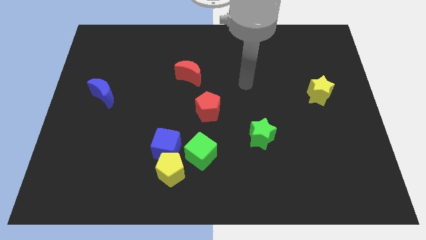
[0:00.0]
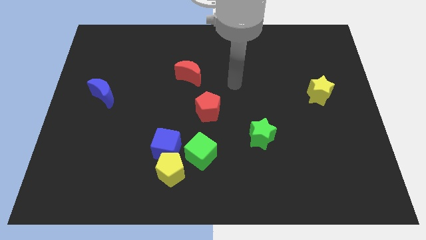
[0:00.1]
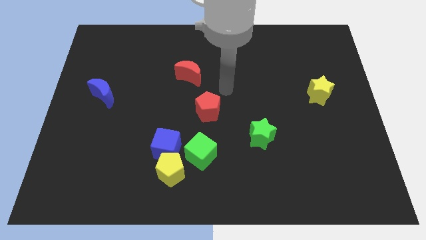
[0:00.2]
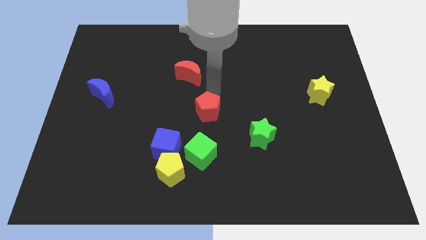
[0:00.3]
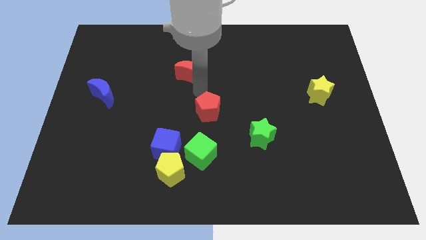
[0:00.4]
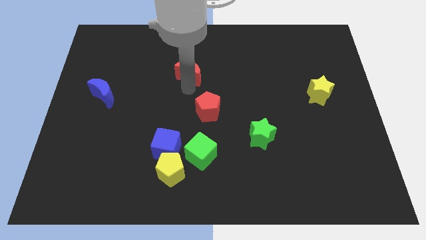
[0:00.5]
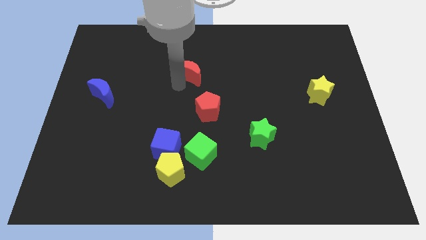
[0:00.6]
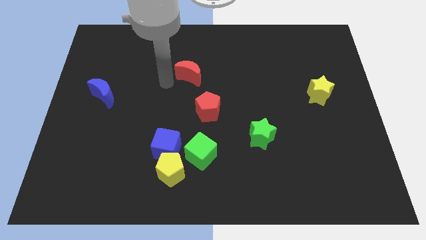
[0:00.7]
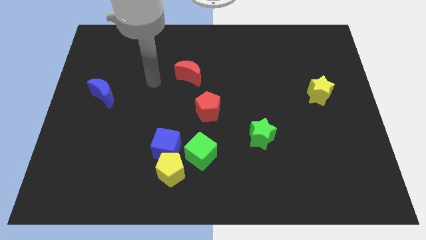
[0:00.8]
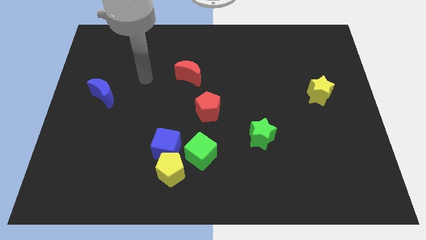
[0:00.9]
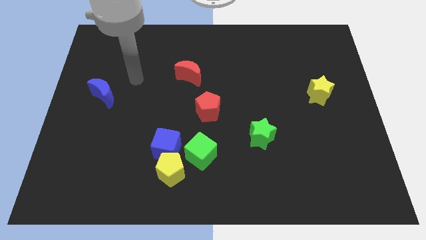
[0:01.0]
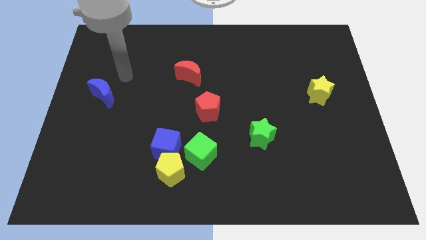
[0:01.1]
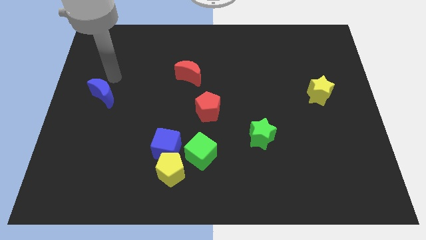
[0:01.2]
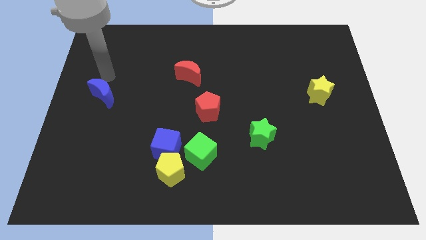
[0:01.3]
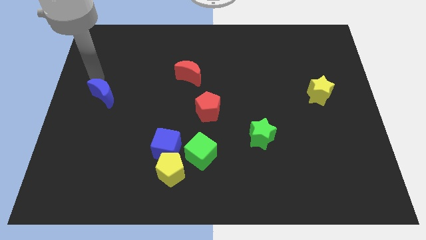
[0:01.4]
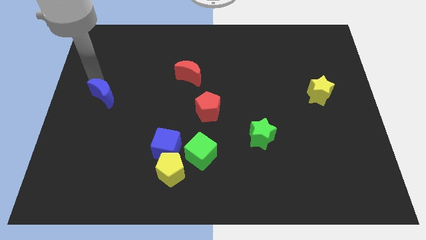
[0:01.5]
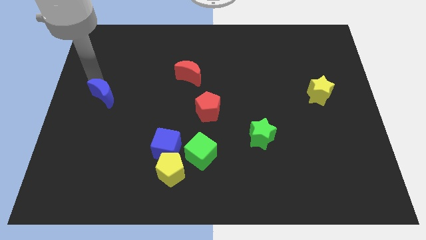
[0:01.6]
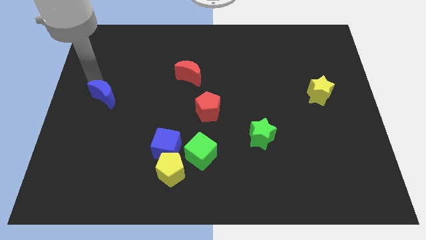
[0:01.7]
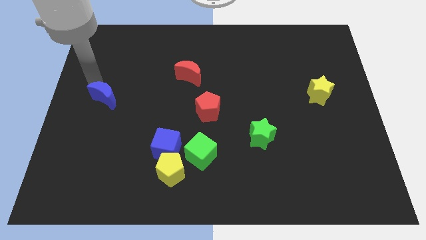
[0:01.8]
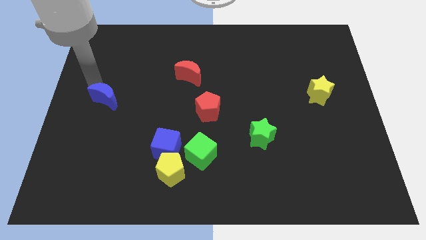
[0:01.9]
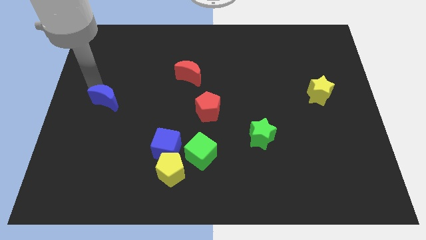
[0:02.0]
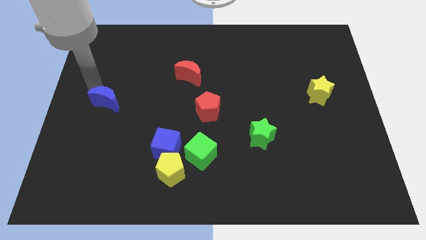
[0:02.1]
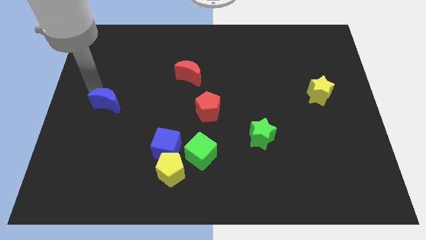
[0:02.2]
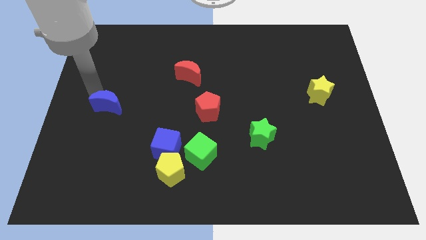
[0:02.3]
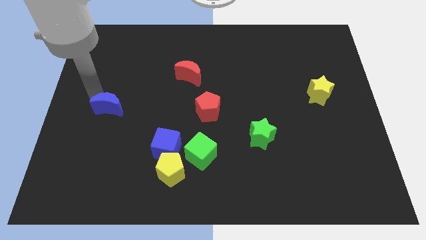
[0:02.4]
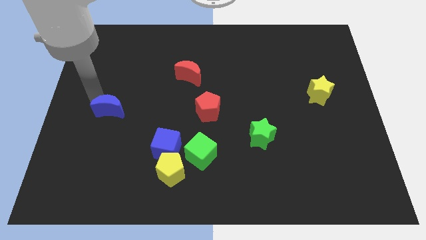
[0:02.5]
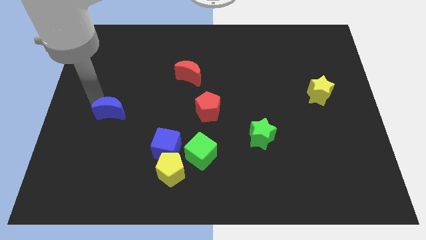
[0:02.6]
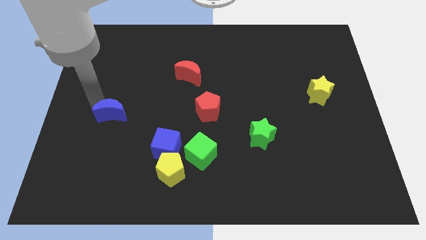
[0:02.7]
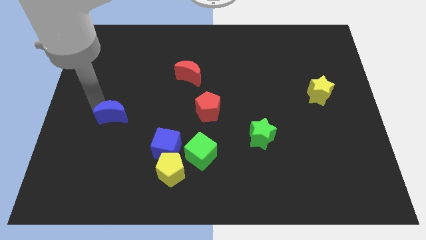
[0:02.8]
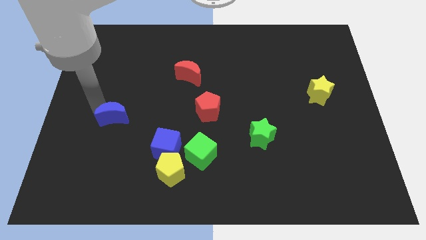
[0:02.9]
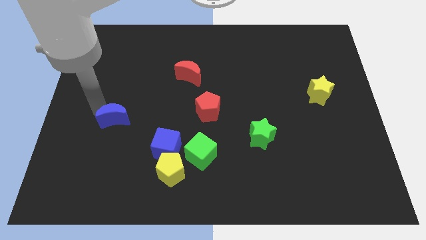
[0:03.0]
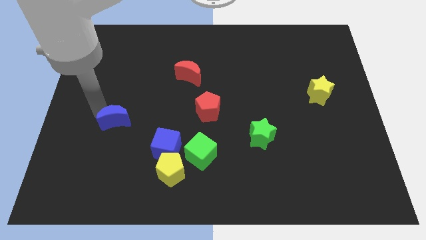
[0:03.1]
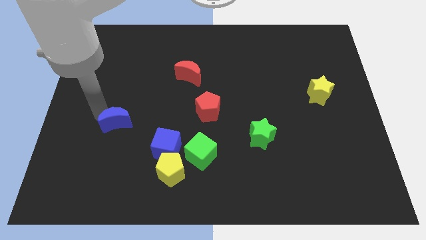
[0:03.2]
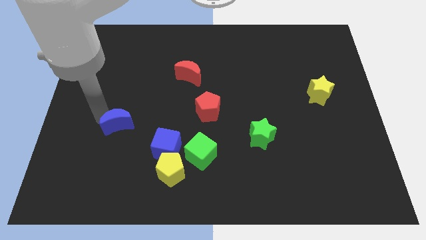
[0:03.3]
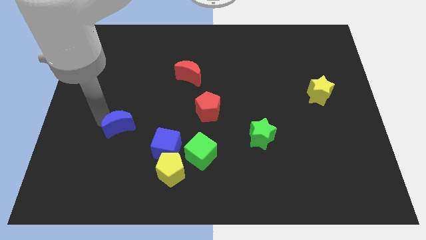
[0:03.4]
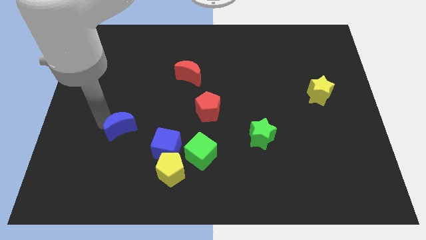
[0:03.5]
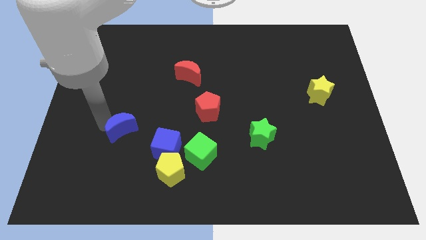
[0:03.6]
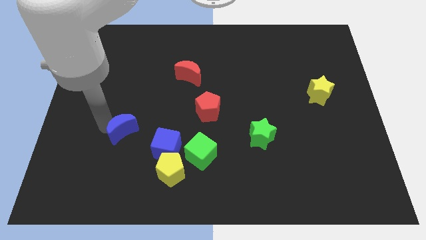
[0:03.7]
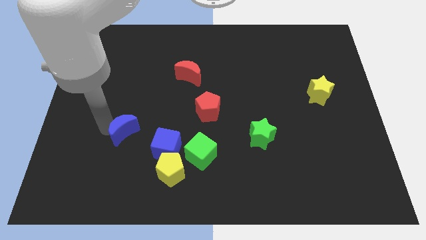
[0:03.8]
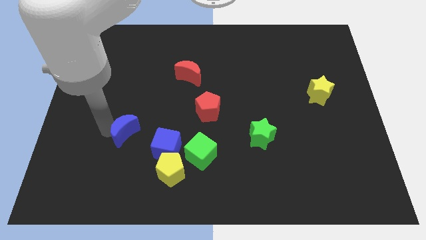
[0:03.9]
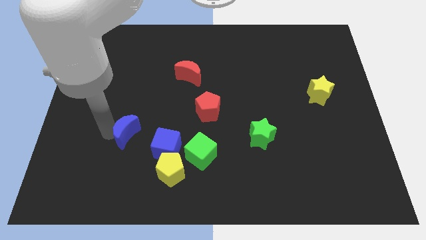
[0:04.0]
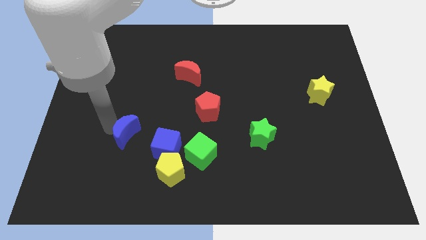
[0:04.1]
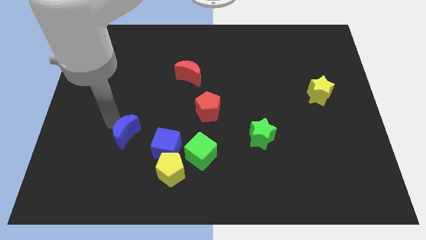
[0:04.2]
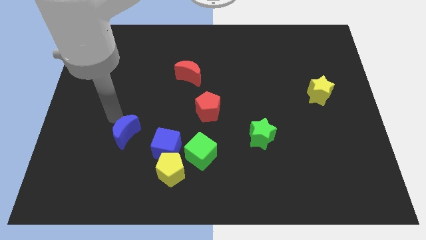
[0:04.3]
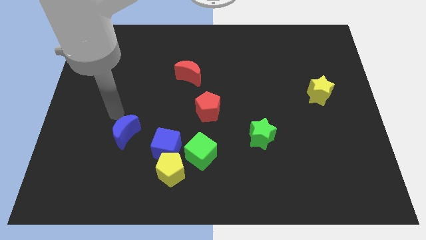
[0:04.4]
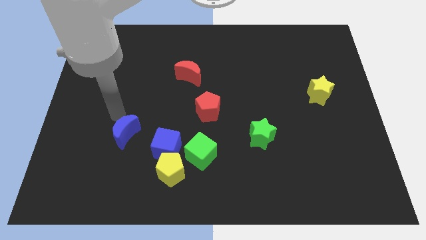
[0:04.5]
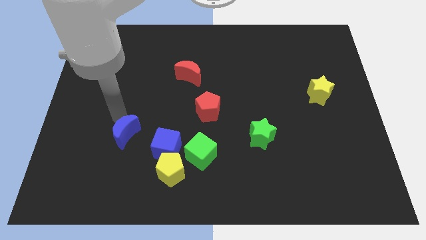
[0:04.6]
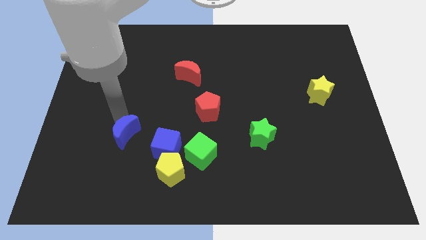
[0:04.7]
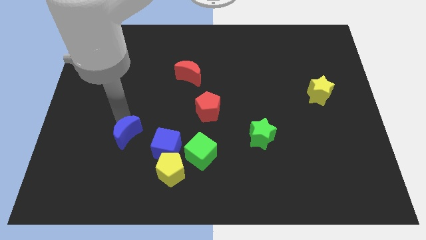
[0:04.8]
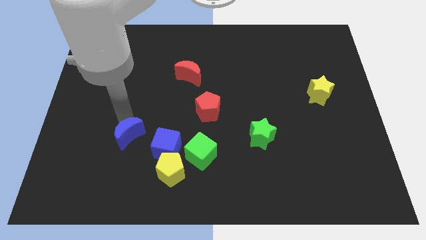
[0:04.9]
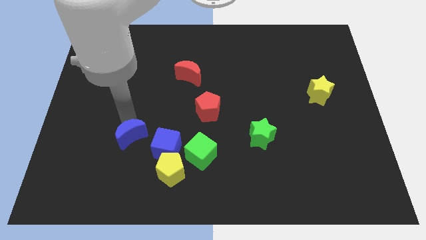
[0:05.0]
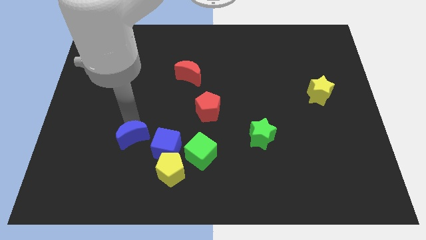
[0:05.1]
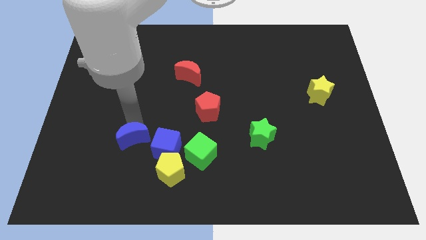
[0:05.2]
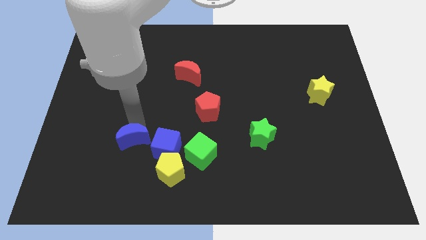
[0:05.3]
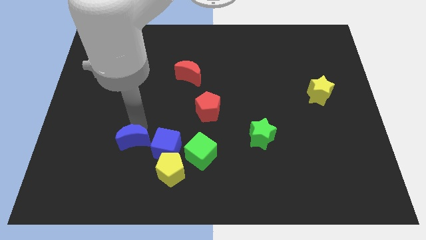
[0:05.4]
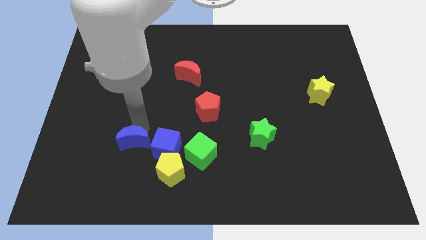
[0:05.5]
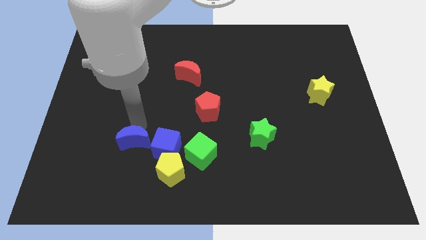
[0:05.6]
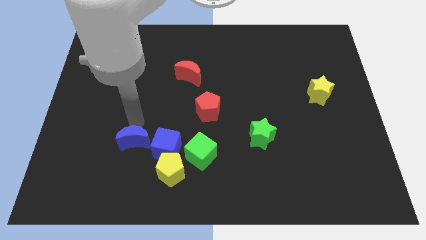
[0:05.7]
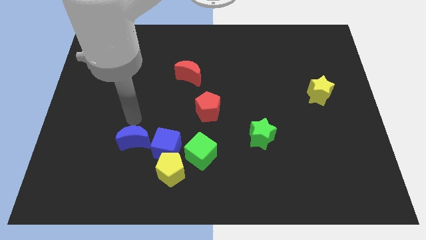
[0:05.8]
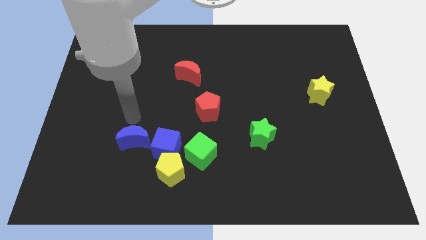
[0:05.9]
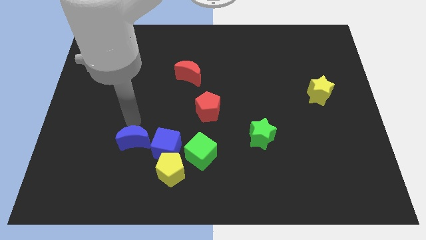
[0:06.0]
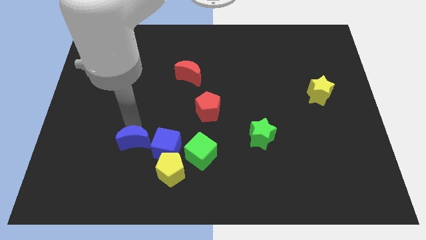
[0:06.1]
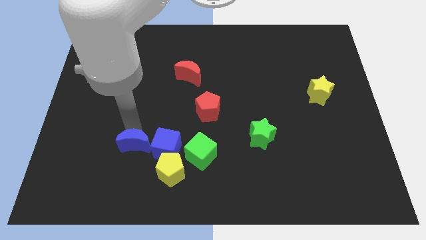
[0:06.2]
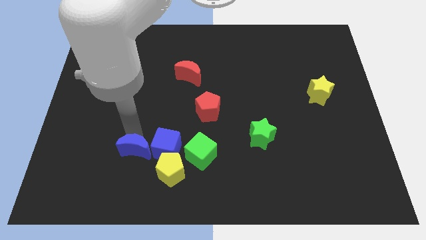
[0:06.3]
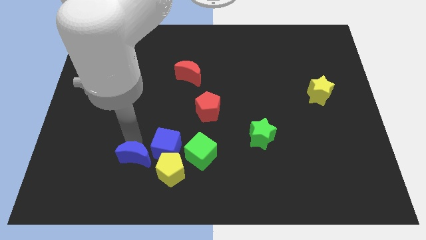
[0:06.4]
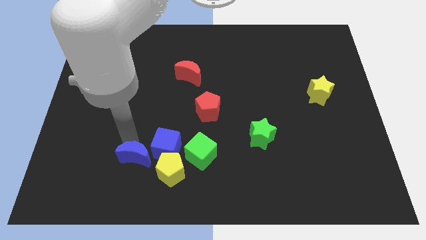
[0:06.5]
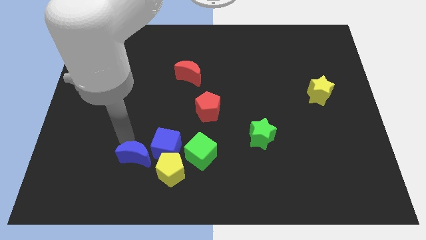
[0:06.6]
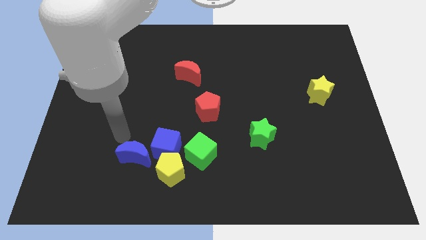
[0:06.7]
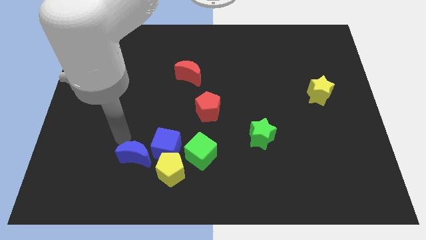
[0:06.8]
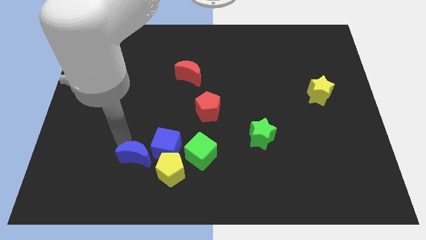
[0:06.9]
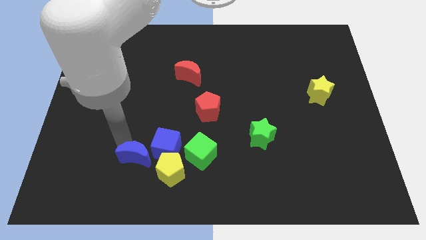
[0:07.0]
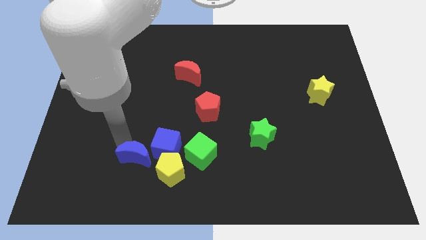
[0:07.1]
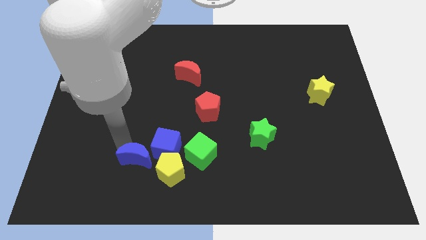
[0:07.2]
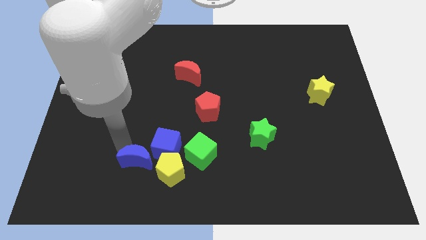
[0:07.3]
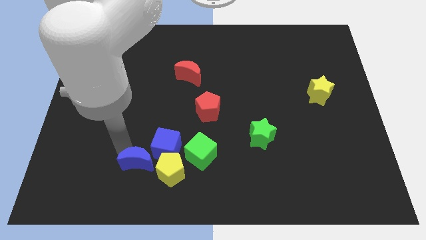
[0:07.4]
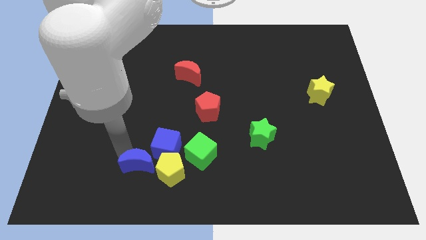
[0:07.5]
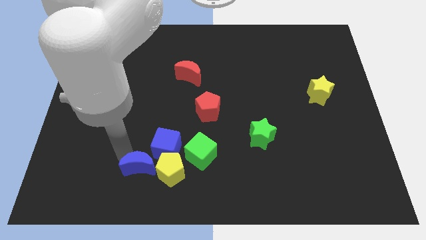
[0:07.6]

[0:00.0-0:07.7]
push the blue moon downwards and to the right
